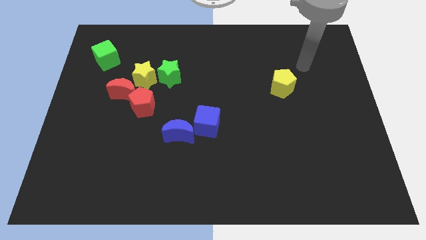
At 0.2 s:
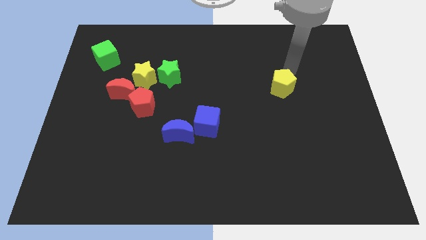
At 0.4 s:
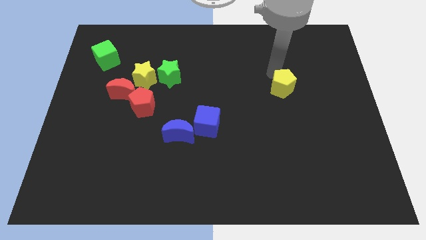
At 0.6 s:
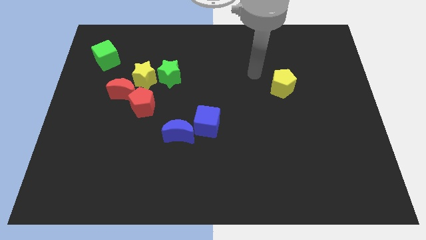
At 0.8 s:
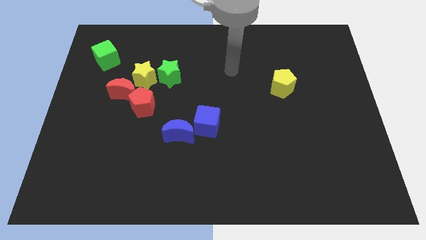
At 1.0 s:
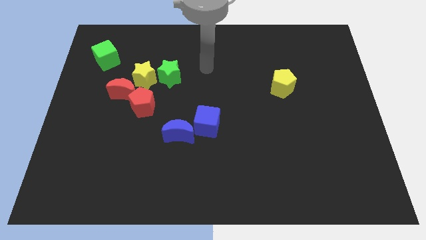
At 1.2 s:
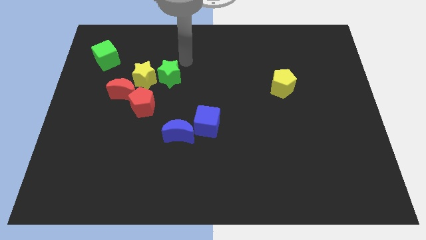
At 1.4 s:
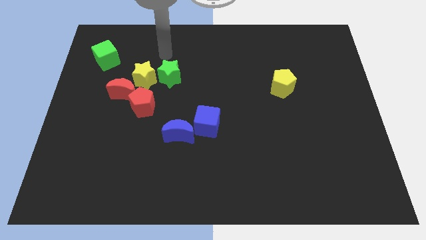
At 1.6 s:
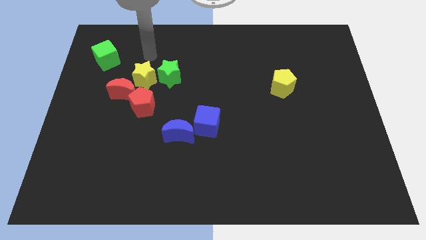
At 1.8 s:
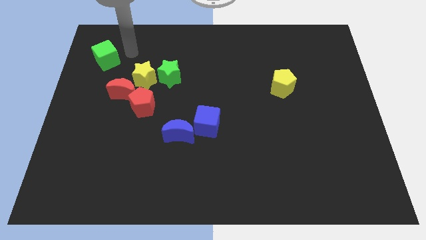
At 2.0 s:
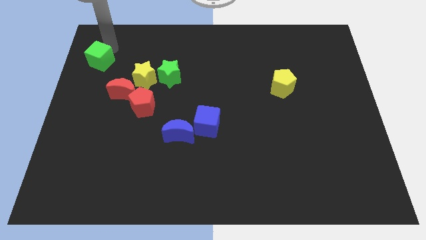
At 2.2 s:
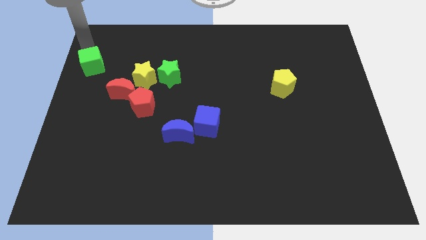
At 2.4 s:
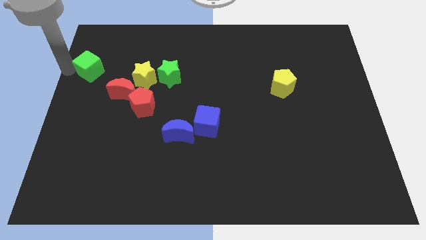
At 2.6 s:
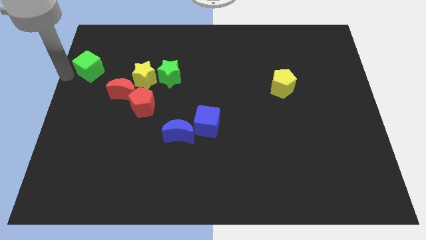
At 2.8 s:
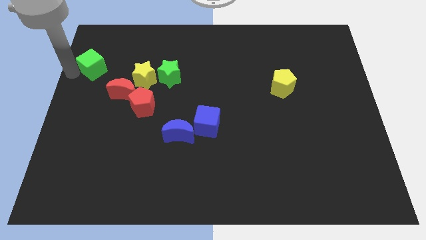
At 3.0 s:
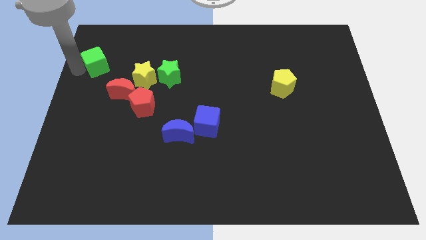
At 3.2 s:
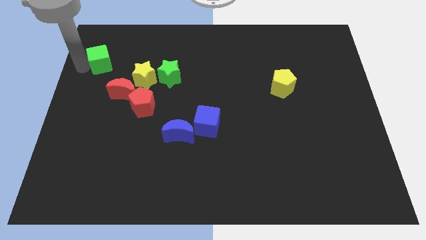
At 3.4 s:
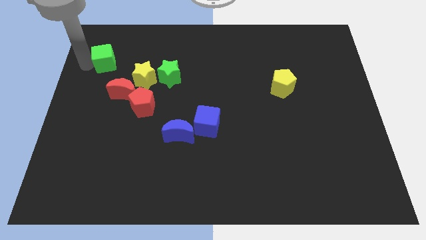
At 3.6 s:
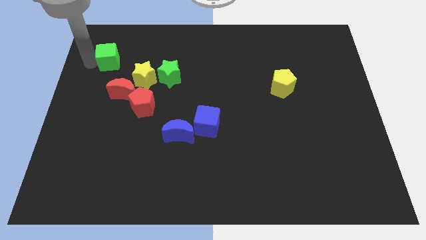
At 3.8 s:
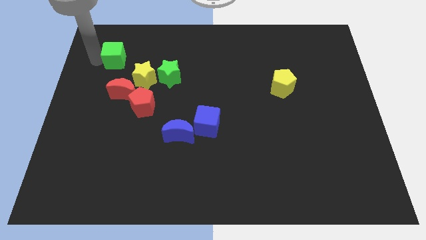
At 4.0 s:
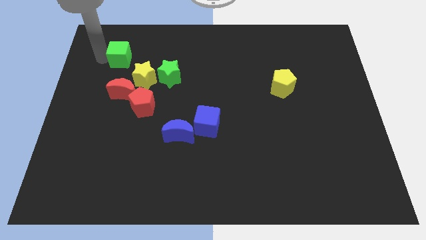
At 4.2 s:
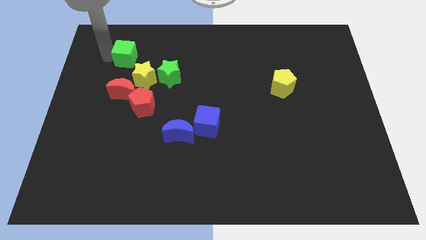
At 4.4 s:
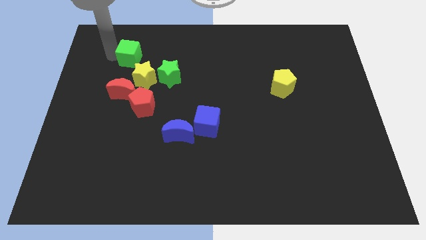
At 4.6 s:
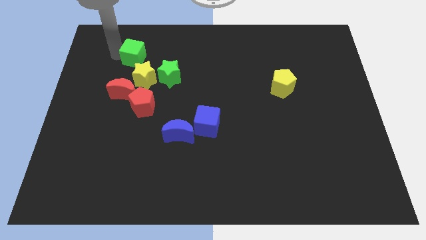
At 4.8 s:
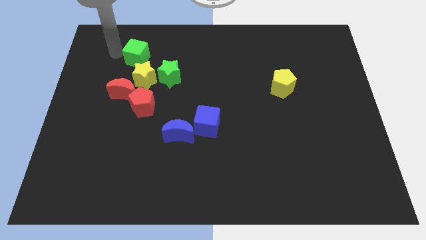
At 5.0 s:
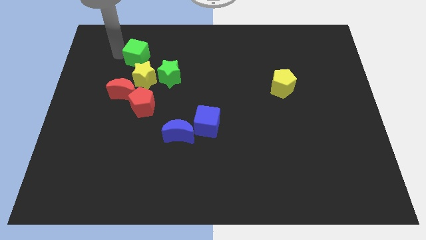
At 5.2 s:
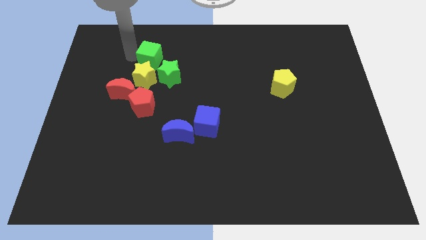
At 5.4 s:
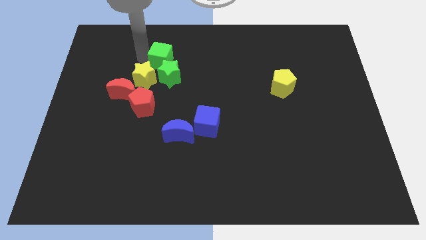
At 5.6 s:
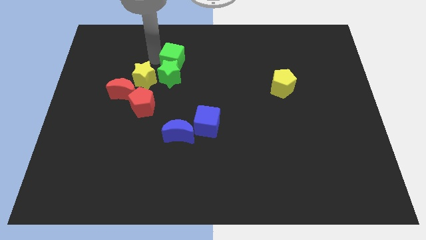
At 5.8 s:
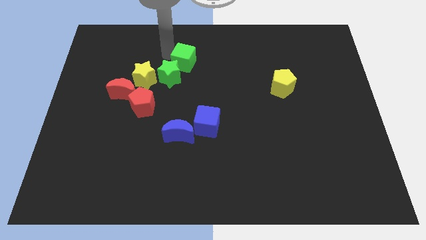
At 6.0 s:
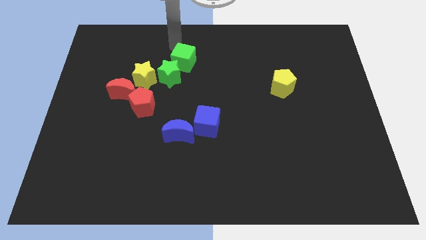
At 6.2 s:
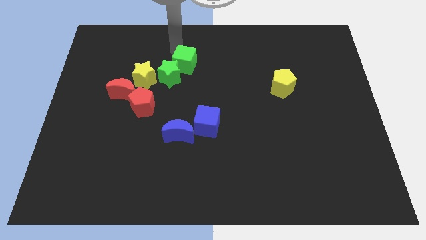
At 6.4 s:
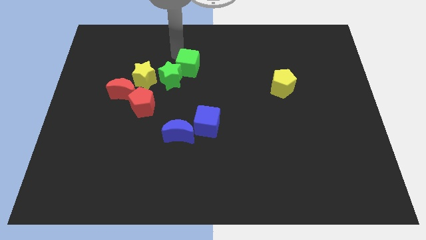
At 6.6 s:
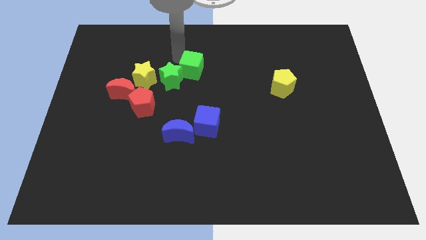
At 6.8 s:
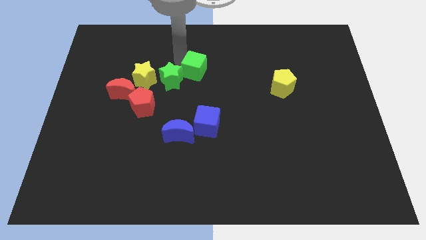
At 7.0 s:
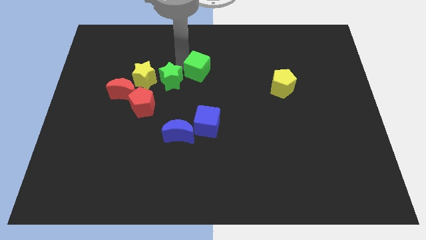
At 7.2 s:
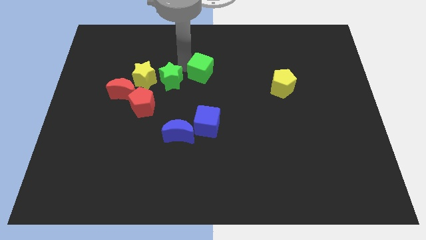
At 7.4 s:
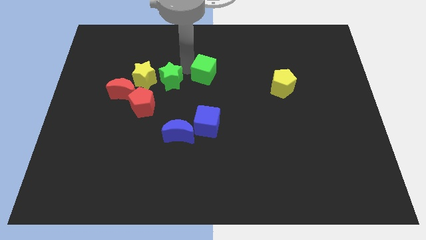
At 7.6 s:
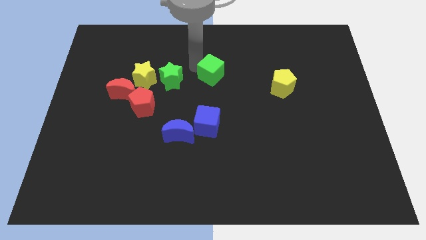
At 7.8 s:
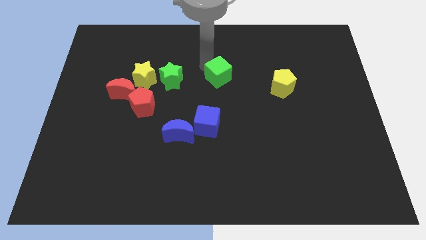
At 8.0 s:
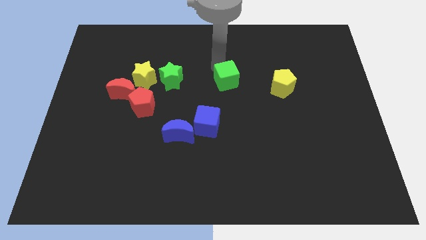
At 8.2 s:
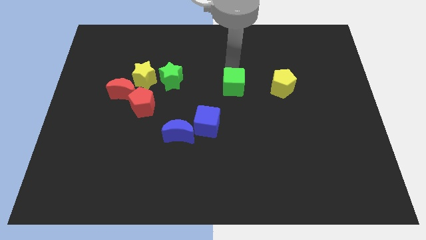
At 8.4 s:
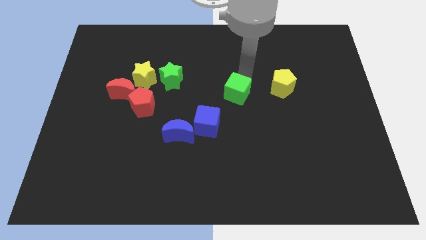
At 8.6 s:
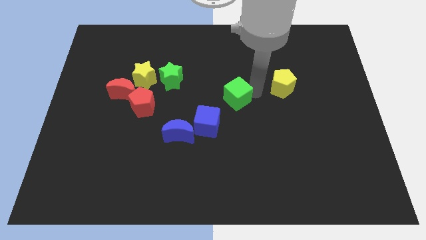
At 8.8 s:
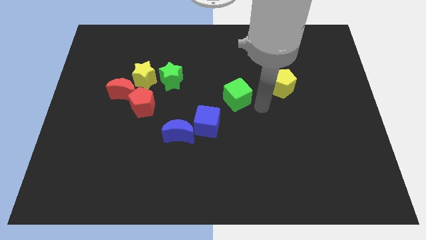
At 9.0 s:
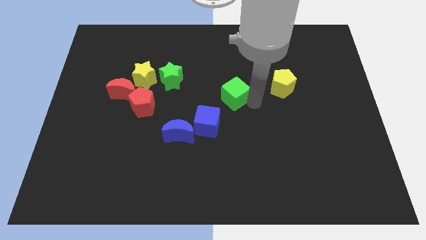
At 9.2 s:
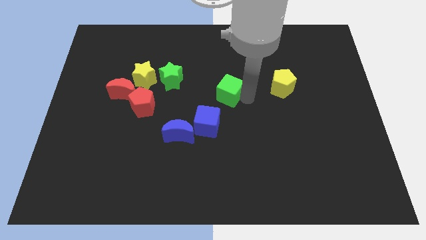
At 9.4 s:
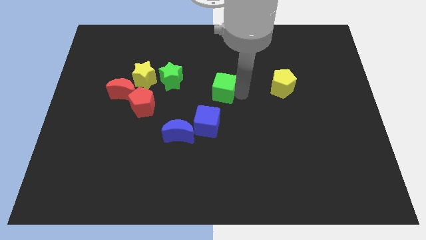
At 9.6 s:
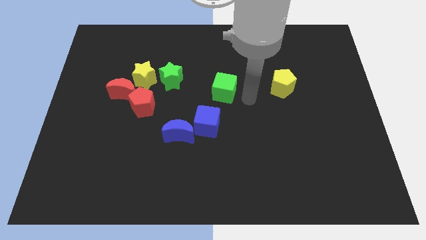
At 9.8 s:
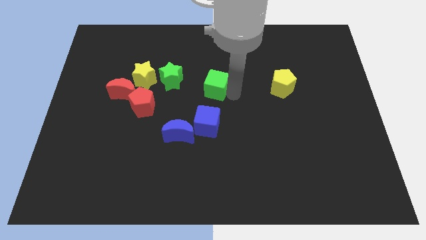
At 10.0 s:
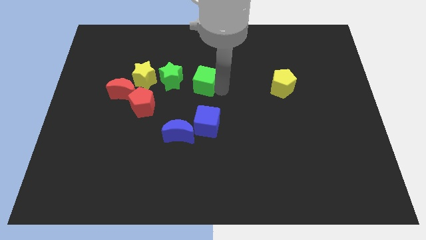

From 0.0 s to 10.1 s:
put the green cube diagonally down and to the right of the green star

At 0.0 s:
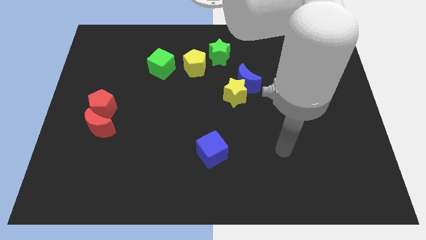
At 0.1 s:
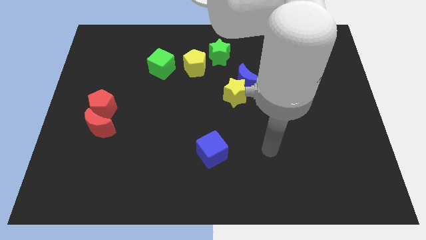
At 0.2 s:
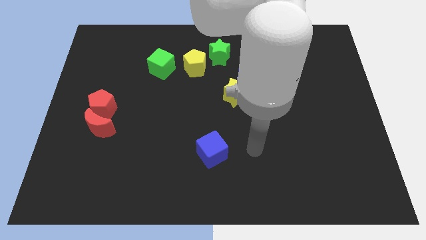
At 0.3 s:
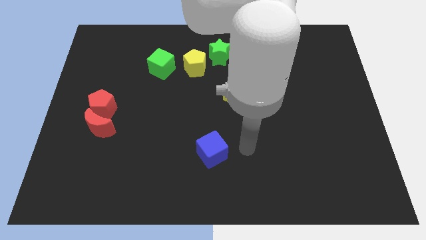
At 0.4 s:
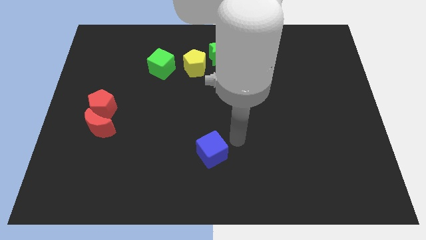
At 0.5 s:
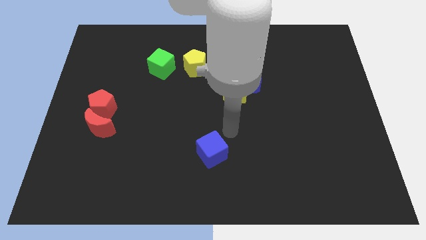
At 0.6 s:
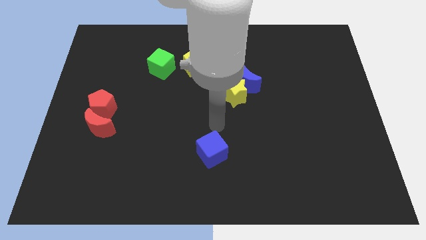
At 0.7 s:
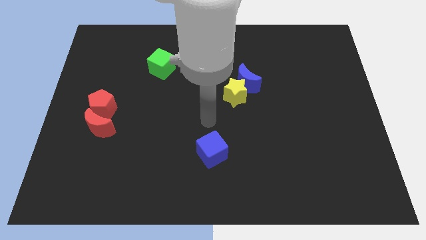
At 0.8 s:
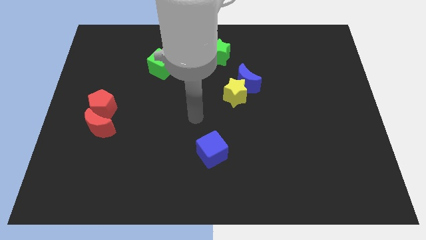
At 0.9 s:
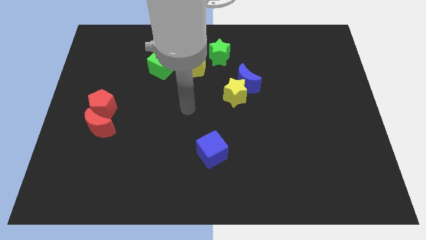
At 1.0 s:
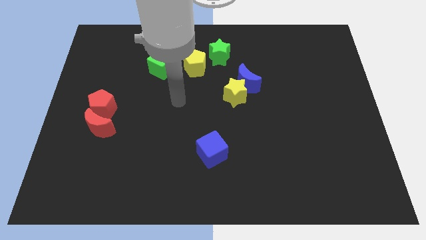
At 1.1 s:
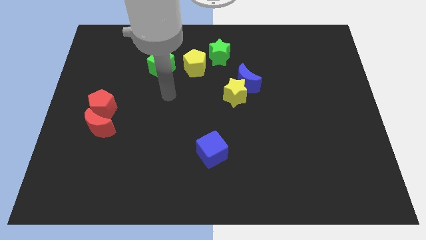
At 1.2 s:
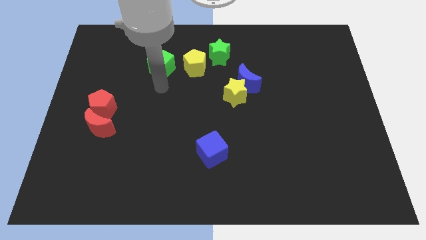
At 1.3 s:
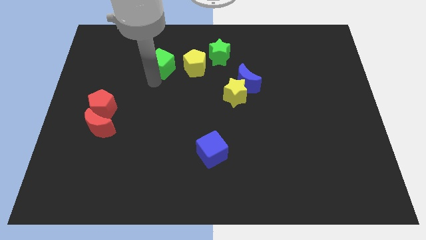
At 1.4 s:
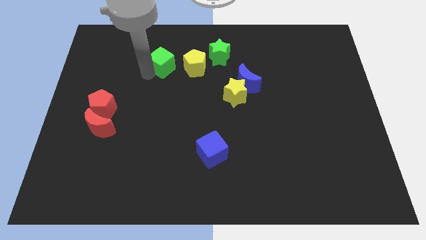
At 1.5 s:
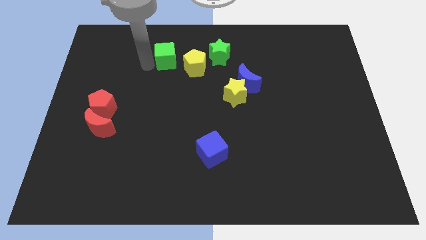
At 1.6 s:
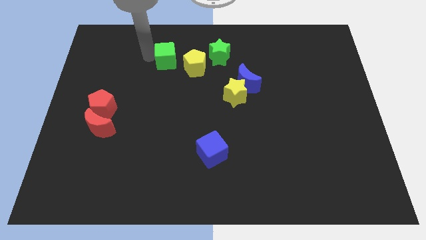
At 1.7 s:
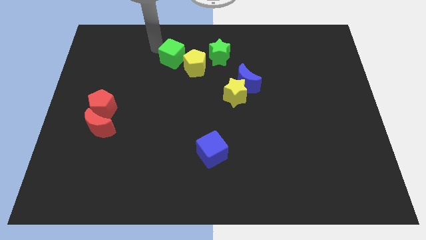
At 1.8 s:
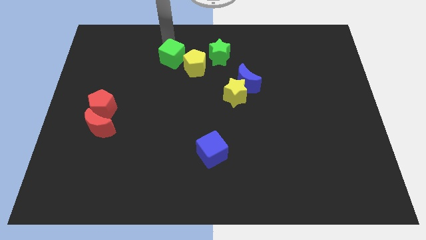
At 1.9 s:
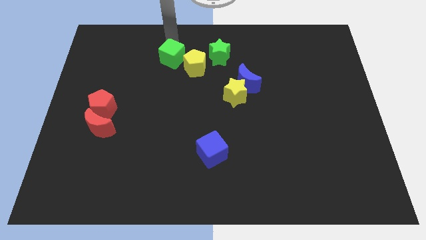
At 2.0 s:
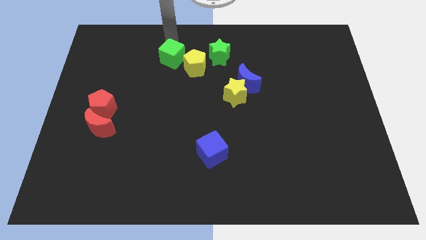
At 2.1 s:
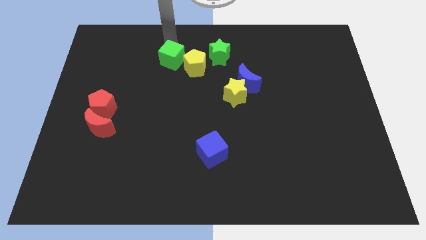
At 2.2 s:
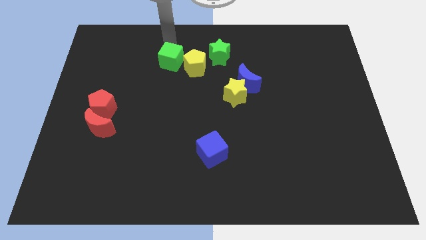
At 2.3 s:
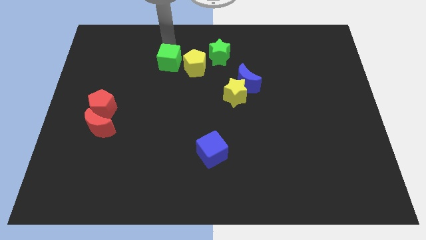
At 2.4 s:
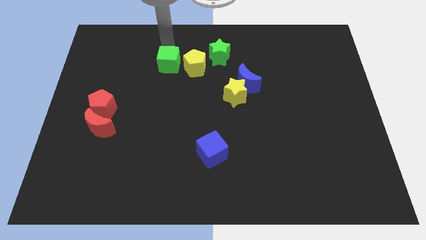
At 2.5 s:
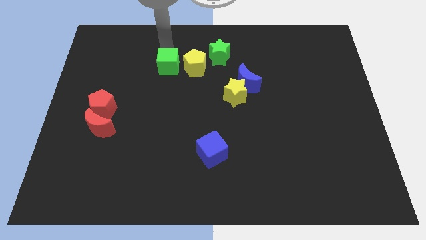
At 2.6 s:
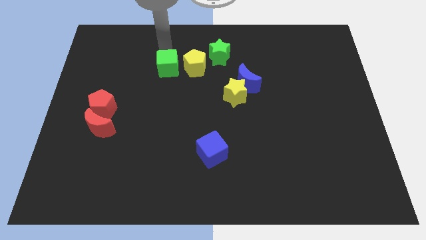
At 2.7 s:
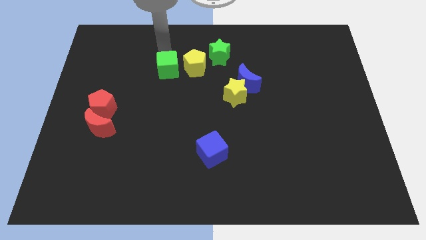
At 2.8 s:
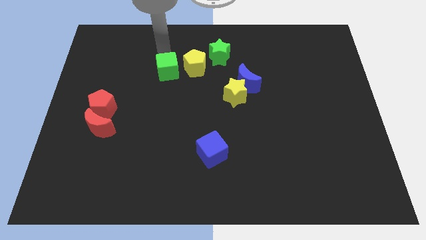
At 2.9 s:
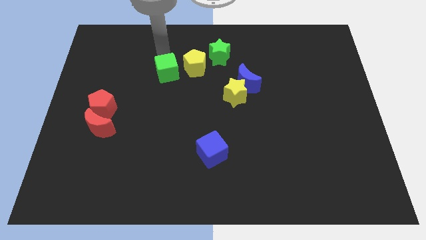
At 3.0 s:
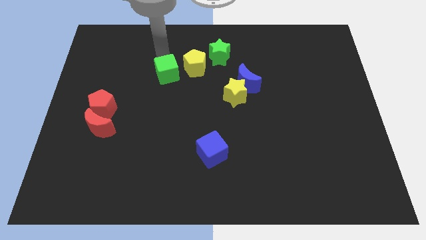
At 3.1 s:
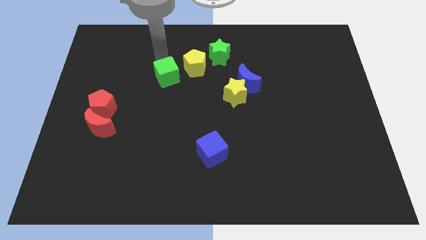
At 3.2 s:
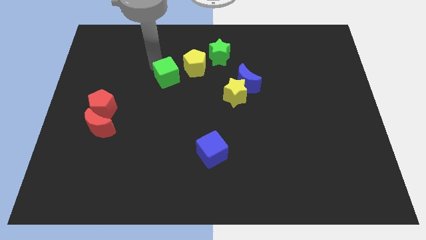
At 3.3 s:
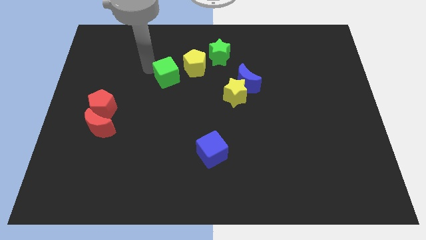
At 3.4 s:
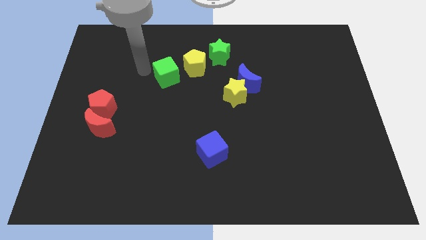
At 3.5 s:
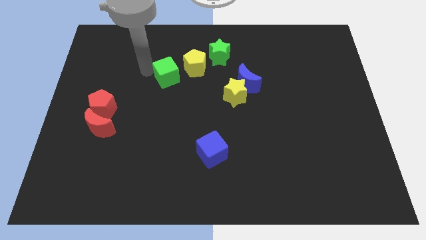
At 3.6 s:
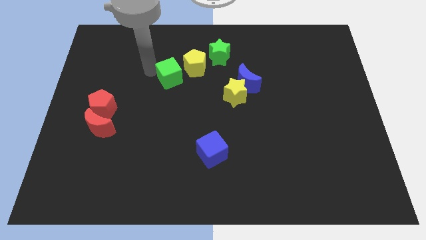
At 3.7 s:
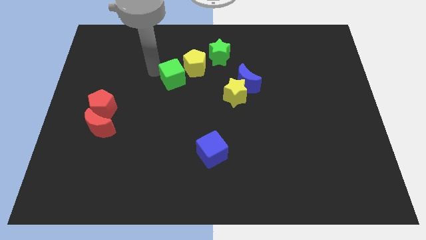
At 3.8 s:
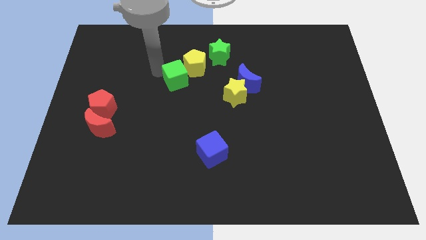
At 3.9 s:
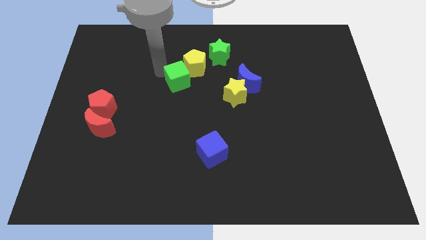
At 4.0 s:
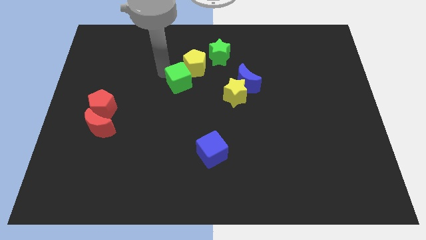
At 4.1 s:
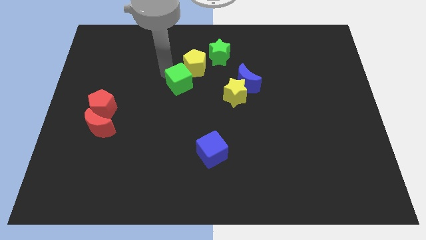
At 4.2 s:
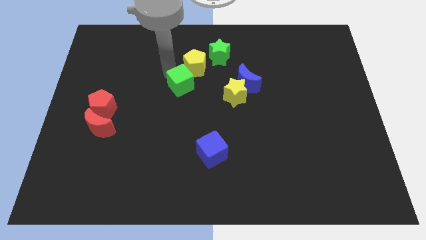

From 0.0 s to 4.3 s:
move the green cube left of the blue moon
